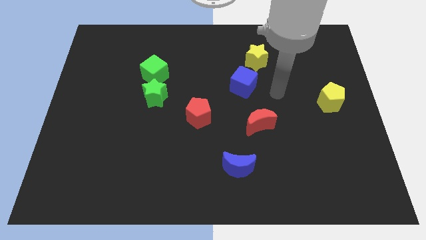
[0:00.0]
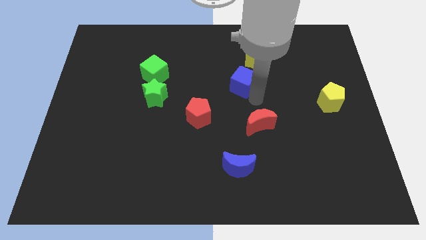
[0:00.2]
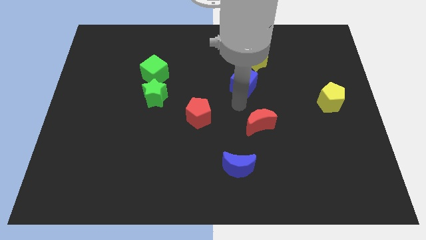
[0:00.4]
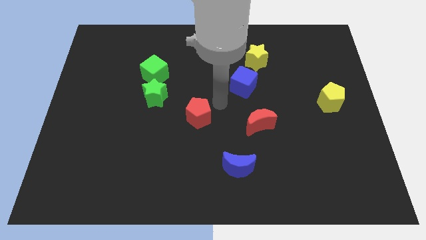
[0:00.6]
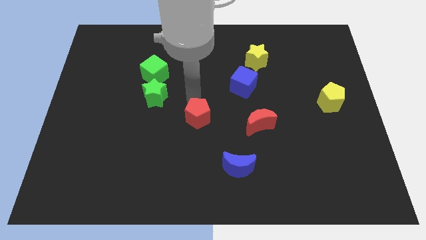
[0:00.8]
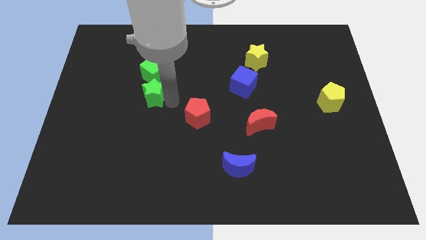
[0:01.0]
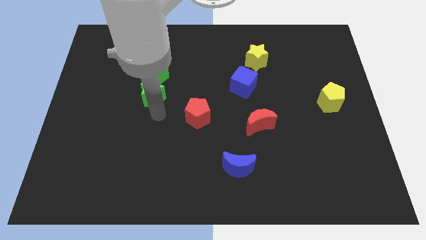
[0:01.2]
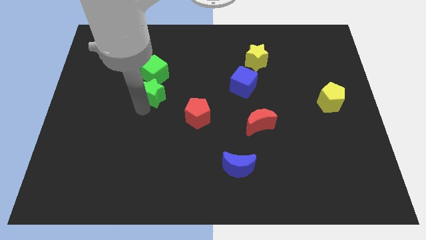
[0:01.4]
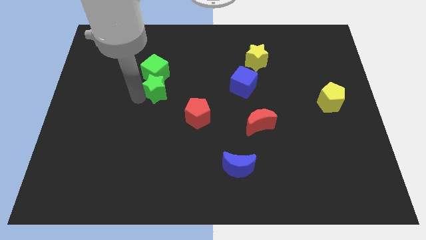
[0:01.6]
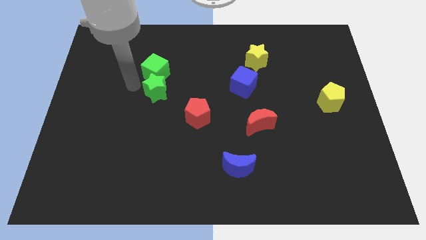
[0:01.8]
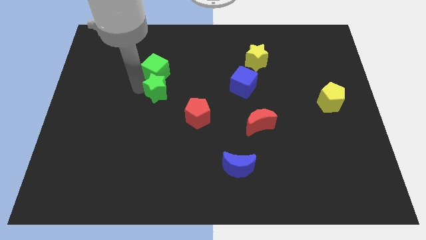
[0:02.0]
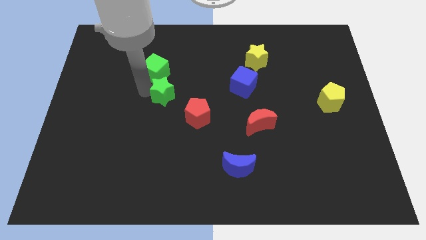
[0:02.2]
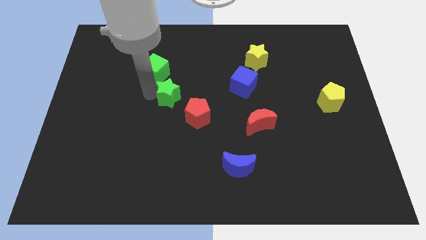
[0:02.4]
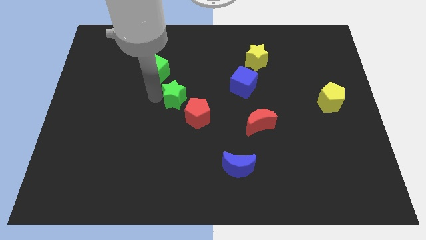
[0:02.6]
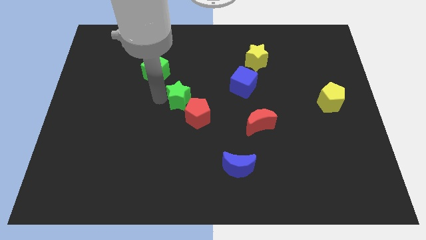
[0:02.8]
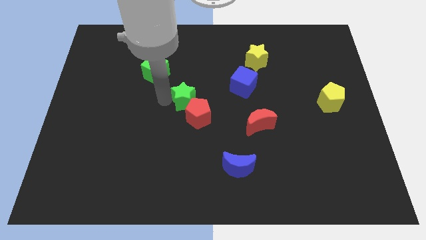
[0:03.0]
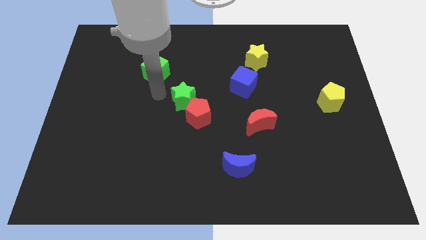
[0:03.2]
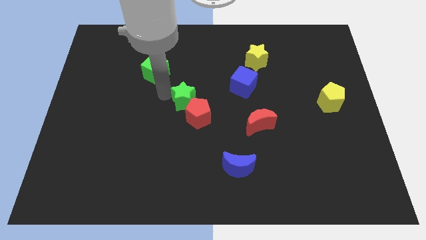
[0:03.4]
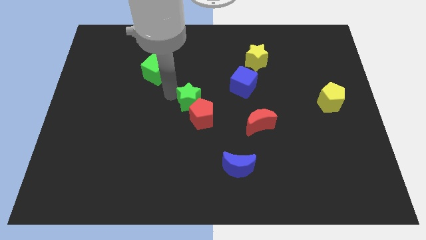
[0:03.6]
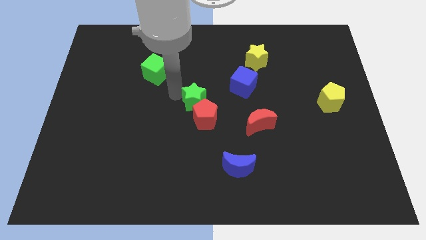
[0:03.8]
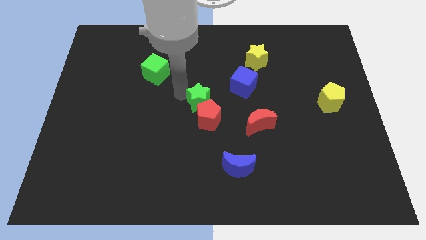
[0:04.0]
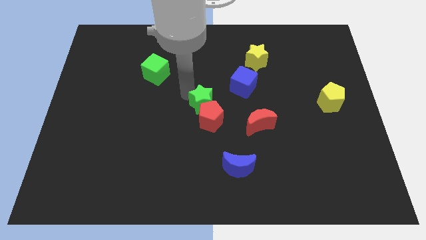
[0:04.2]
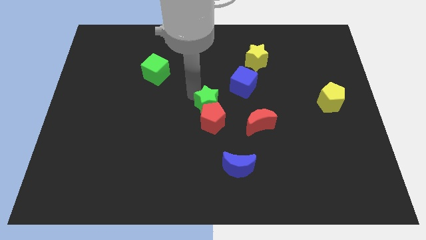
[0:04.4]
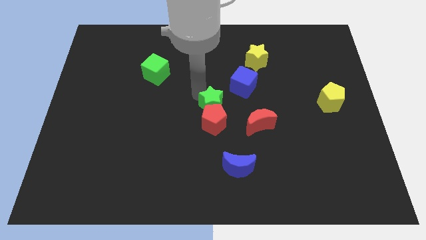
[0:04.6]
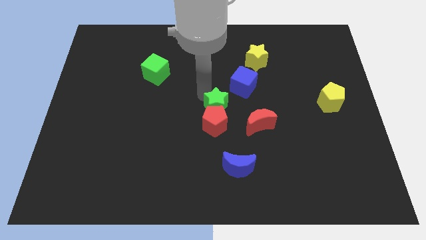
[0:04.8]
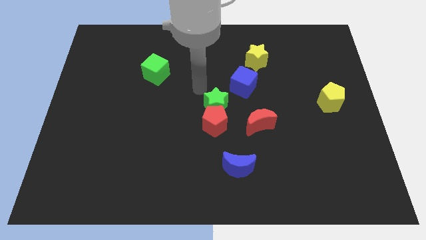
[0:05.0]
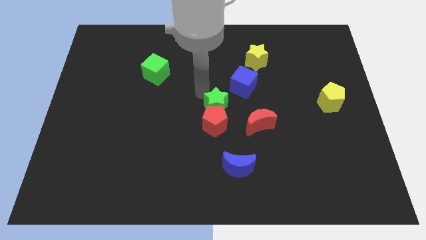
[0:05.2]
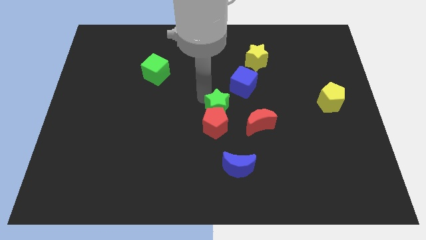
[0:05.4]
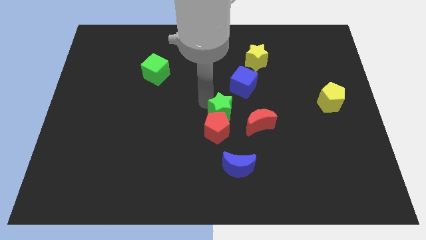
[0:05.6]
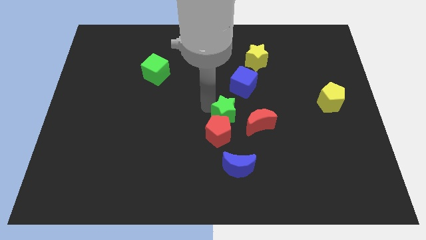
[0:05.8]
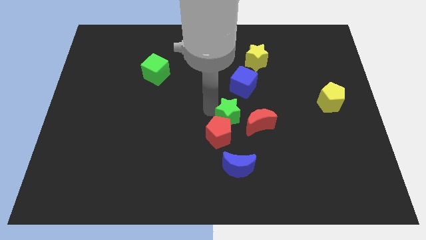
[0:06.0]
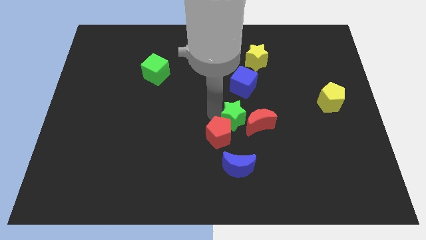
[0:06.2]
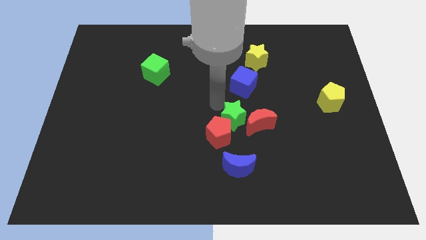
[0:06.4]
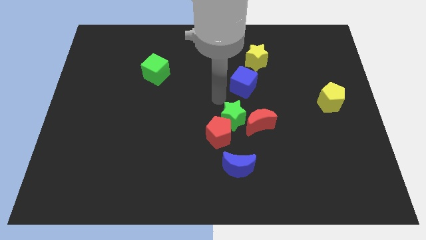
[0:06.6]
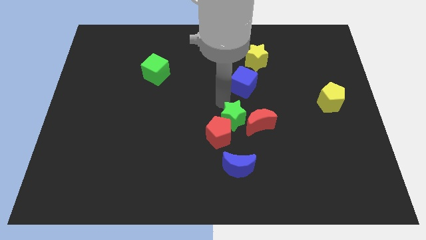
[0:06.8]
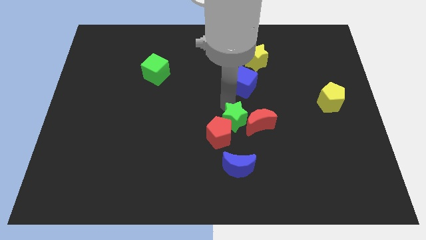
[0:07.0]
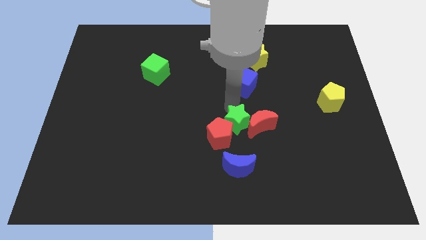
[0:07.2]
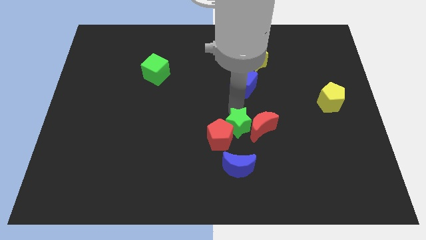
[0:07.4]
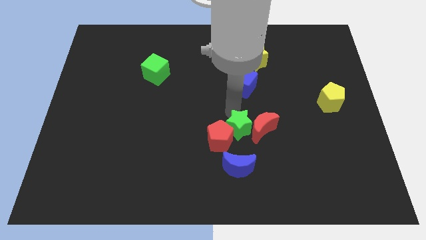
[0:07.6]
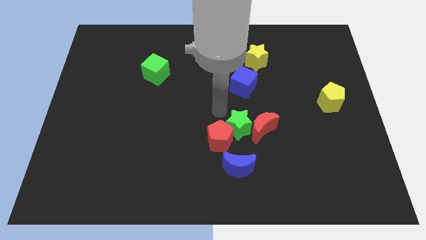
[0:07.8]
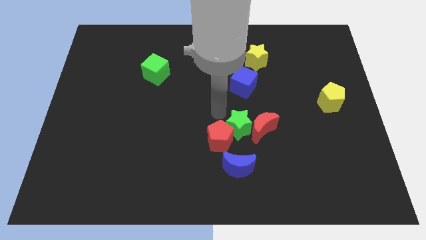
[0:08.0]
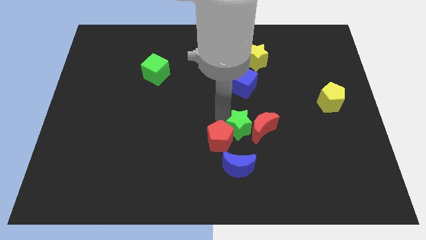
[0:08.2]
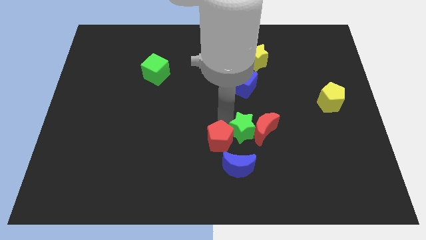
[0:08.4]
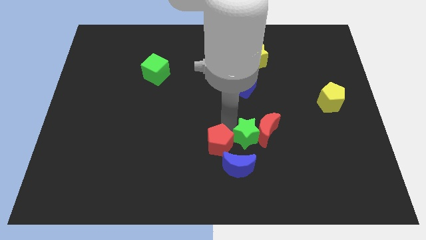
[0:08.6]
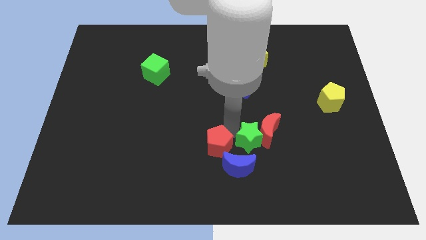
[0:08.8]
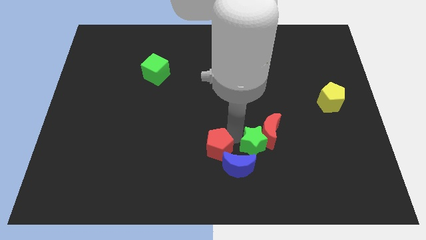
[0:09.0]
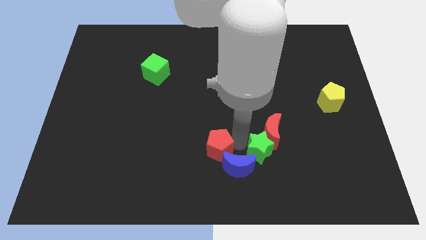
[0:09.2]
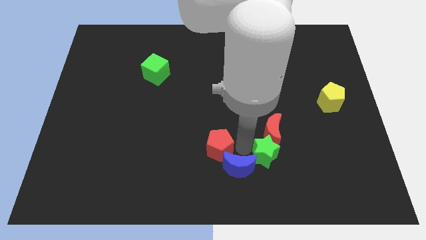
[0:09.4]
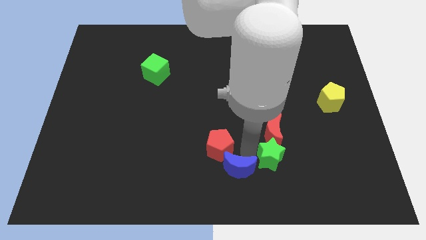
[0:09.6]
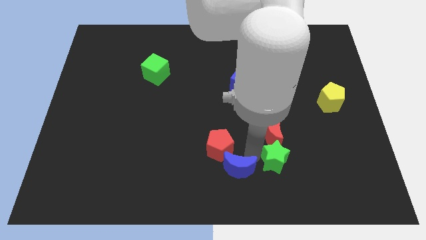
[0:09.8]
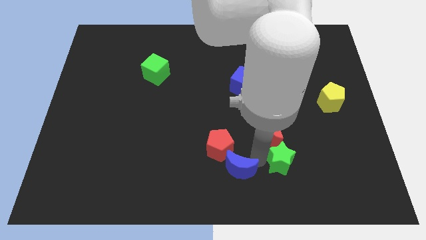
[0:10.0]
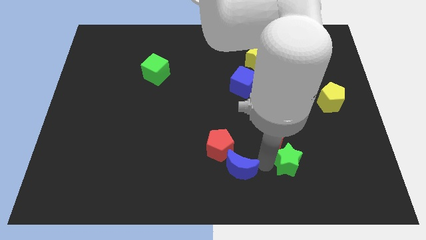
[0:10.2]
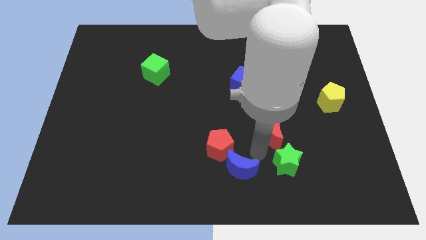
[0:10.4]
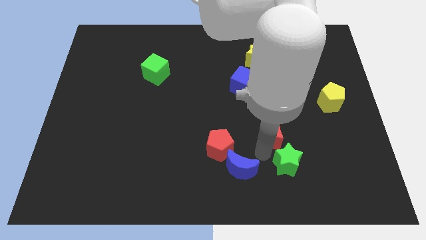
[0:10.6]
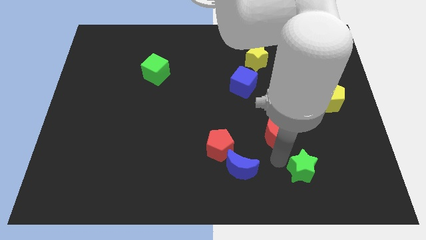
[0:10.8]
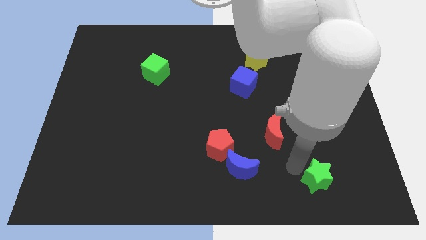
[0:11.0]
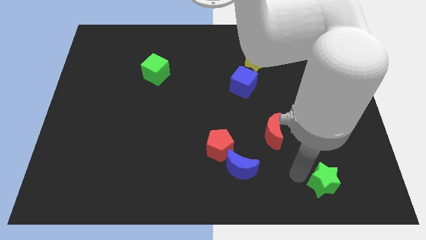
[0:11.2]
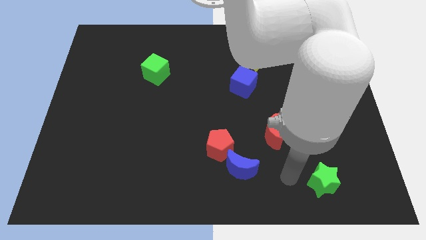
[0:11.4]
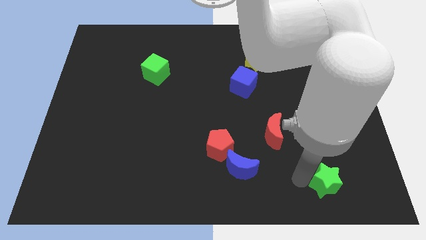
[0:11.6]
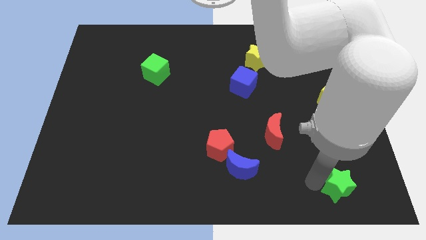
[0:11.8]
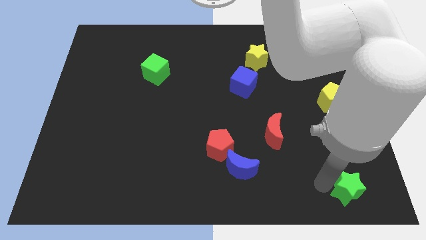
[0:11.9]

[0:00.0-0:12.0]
put the green star to the lower right corner
